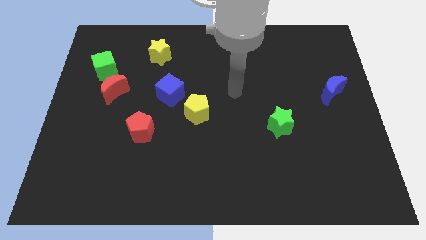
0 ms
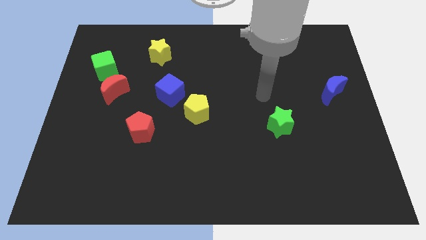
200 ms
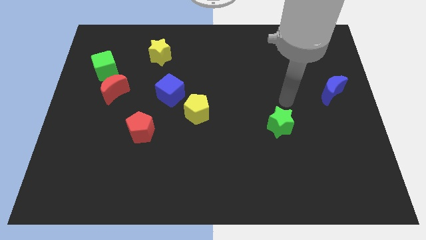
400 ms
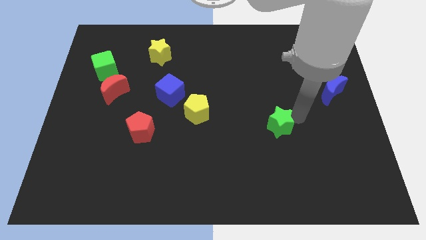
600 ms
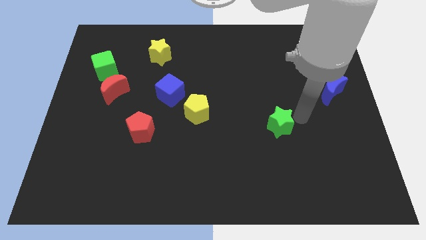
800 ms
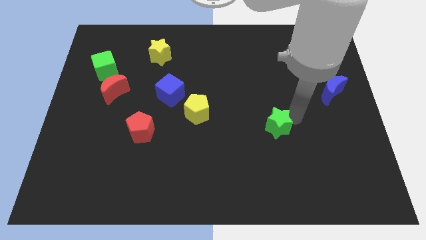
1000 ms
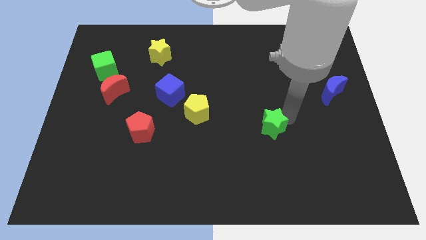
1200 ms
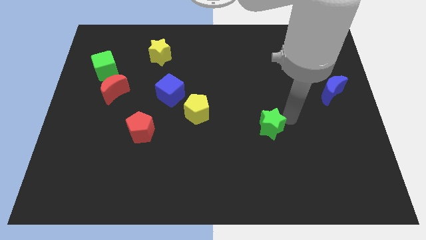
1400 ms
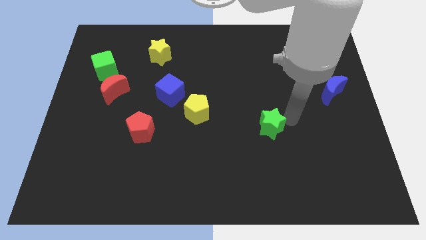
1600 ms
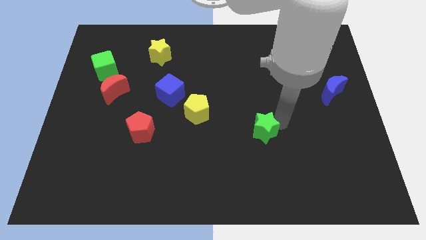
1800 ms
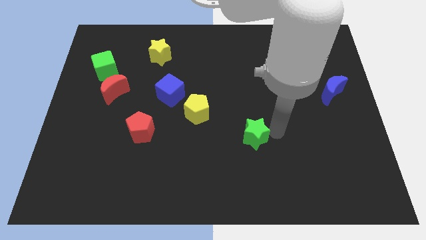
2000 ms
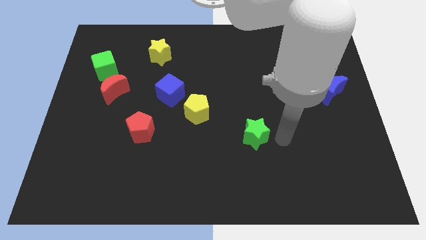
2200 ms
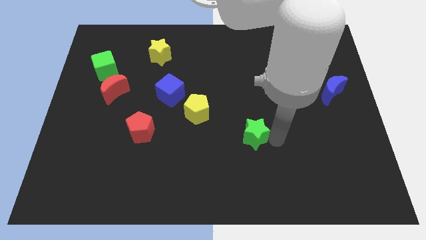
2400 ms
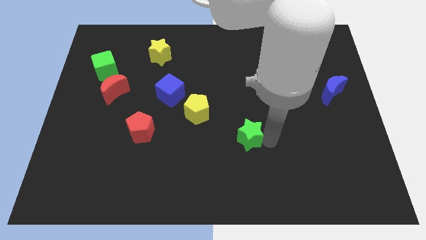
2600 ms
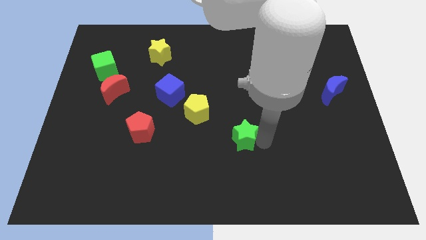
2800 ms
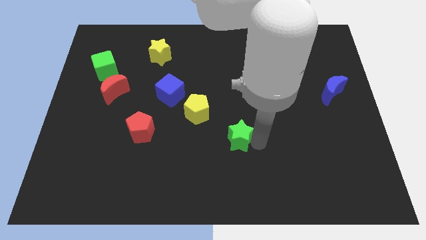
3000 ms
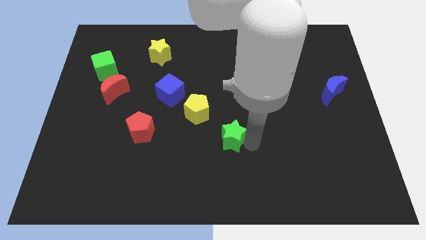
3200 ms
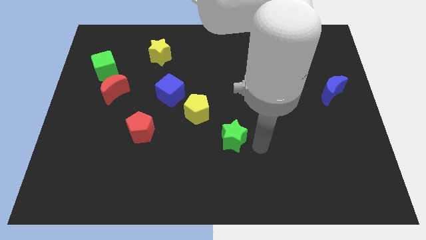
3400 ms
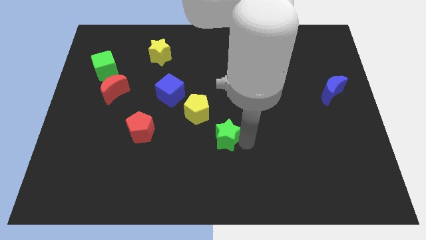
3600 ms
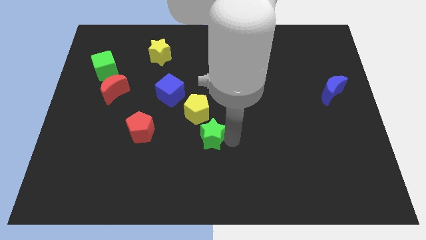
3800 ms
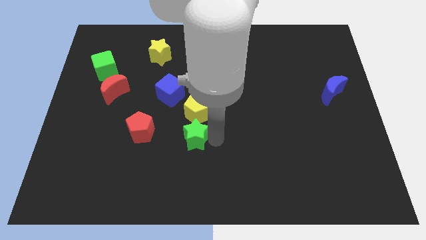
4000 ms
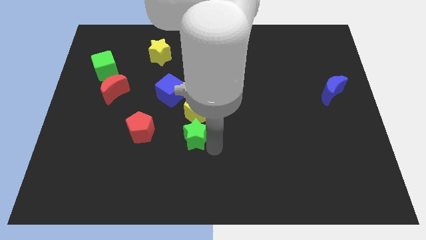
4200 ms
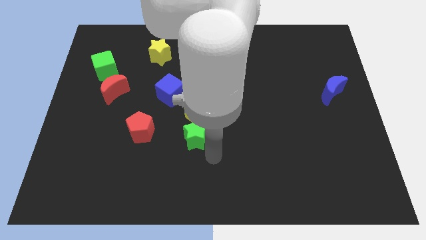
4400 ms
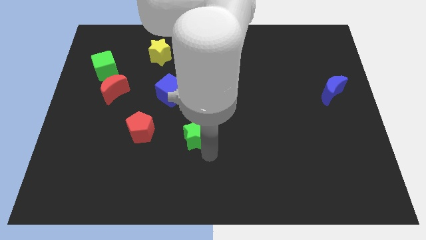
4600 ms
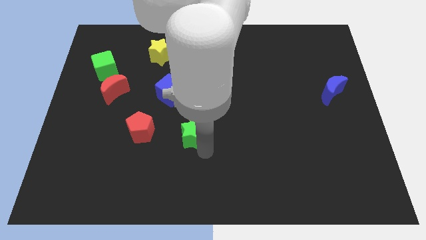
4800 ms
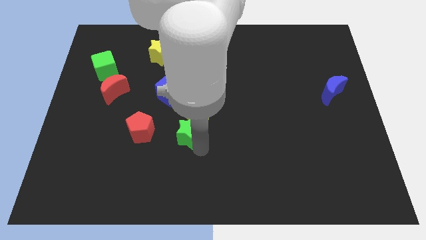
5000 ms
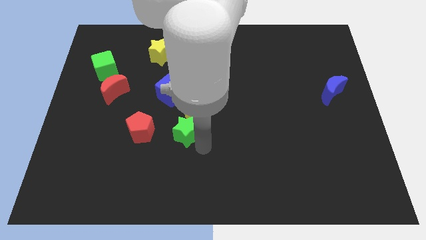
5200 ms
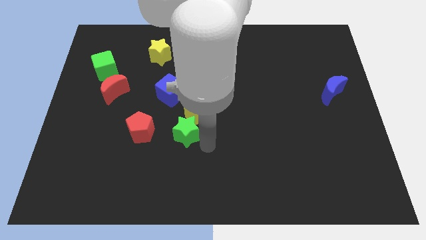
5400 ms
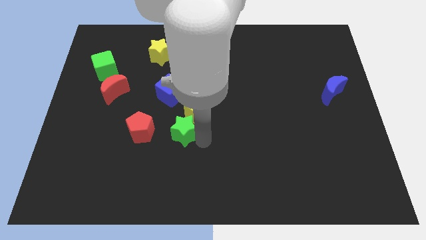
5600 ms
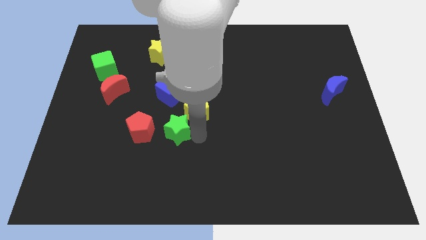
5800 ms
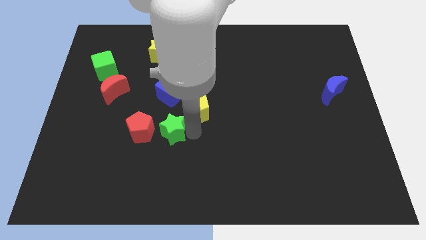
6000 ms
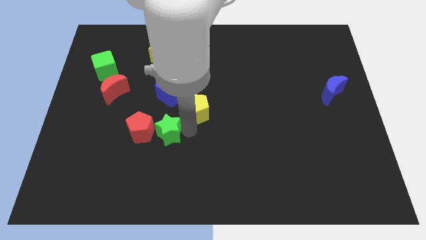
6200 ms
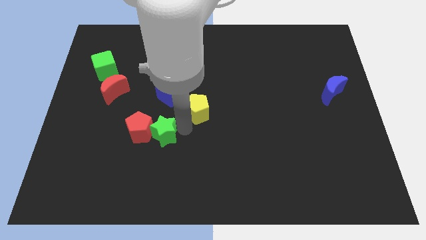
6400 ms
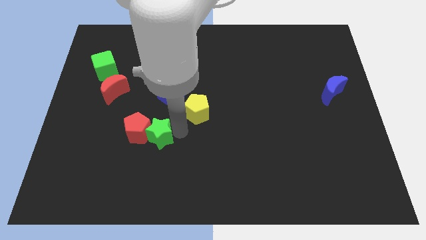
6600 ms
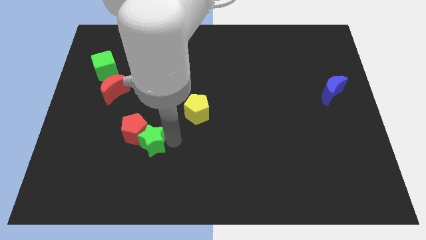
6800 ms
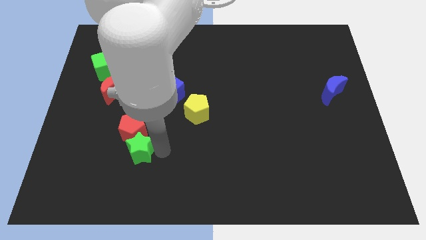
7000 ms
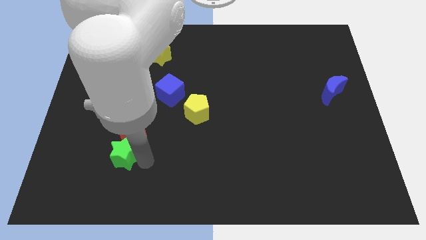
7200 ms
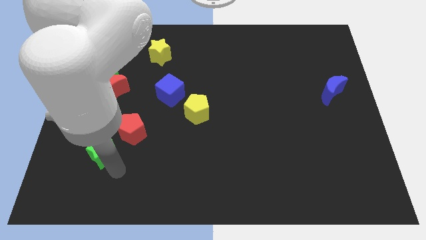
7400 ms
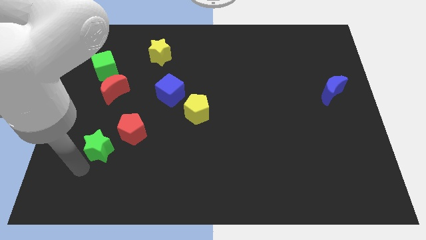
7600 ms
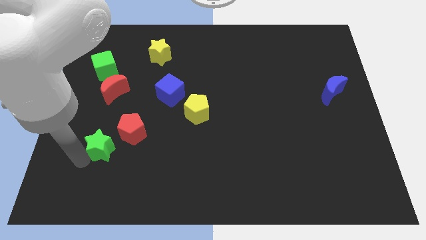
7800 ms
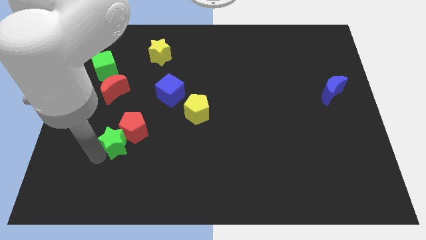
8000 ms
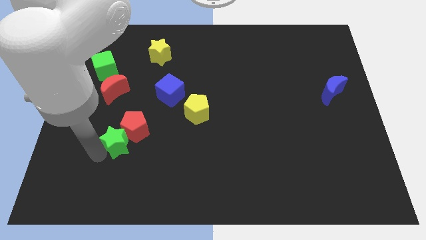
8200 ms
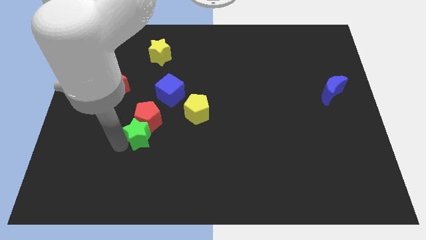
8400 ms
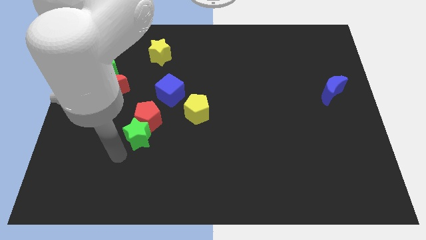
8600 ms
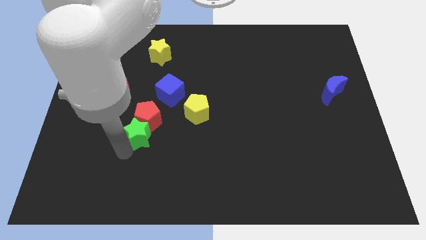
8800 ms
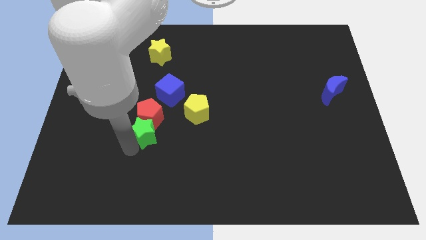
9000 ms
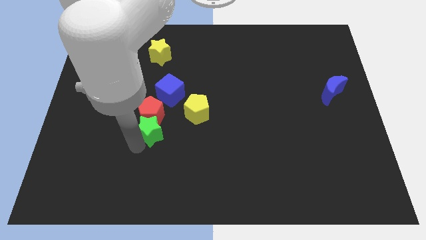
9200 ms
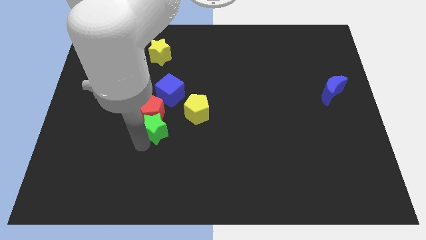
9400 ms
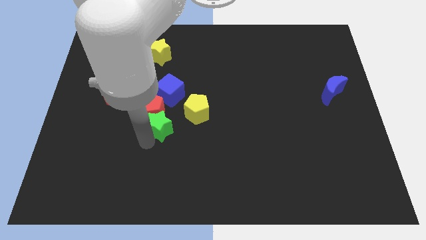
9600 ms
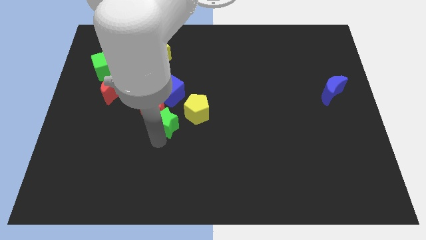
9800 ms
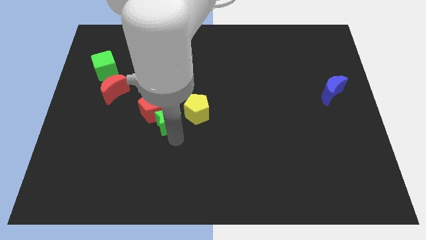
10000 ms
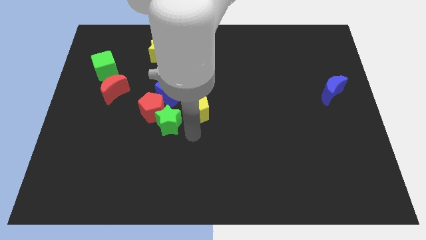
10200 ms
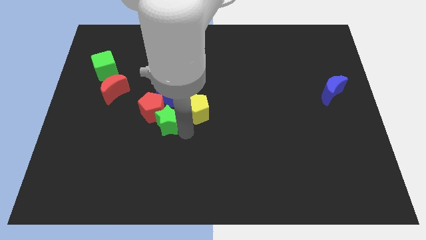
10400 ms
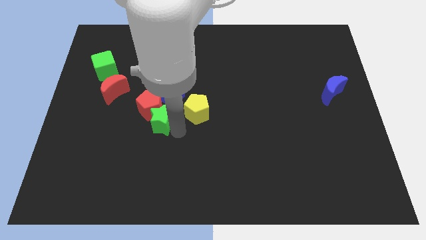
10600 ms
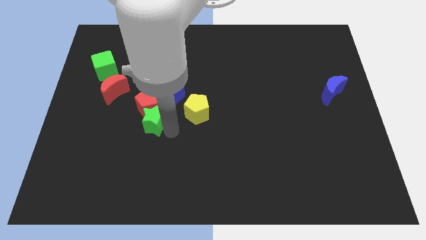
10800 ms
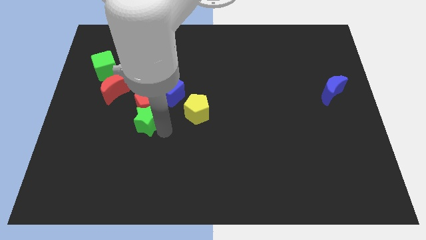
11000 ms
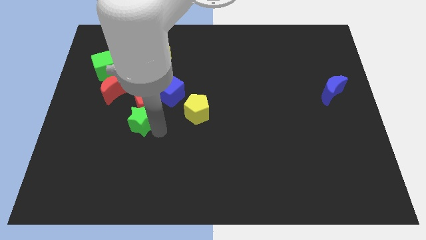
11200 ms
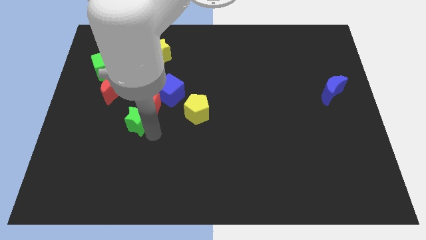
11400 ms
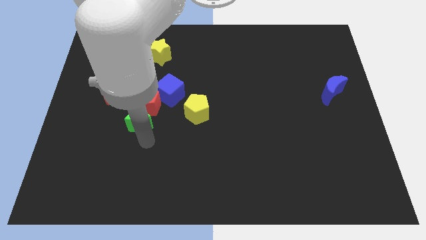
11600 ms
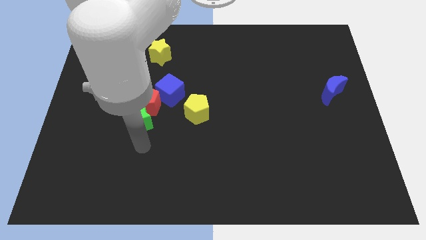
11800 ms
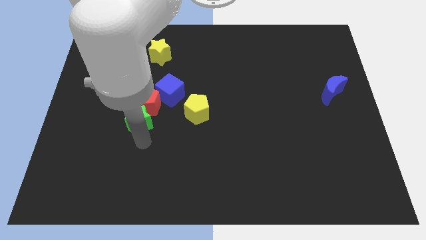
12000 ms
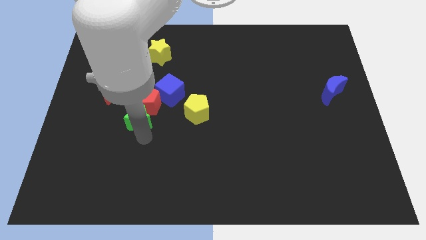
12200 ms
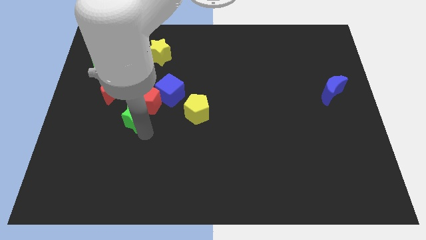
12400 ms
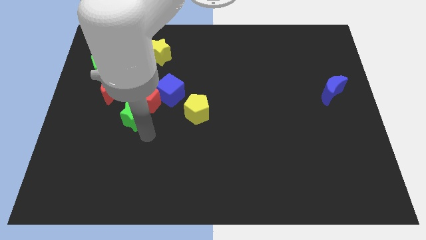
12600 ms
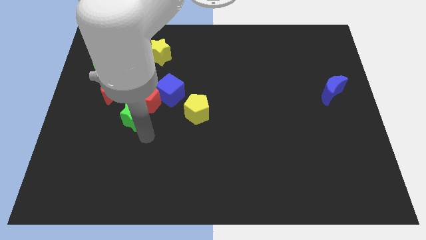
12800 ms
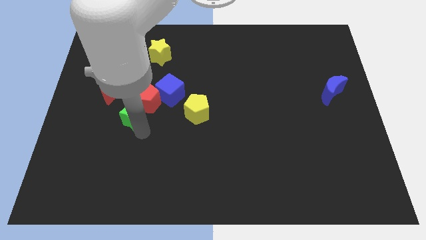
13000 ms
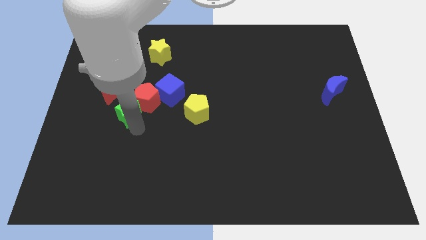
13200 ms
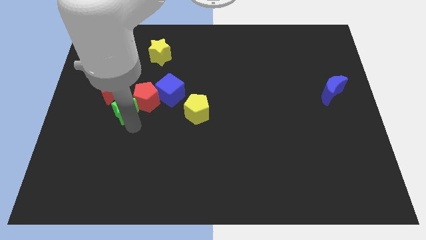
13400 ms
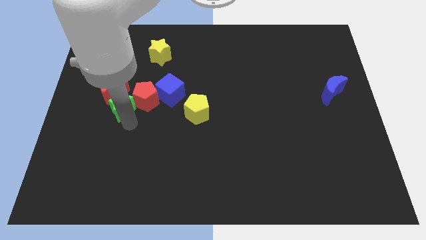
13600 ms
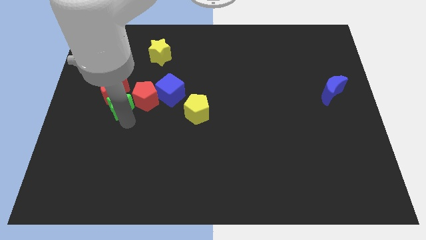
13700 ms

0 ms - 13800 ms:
push the green star towards the red moon

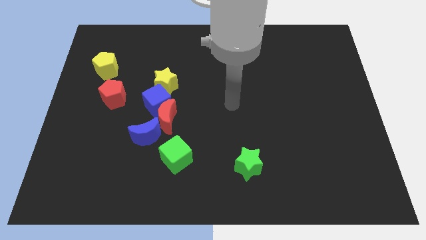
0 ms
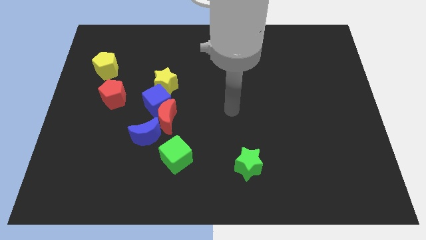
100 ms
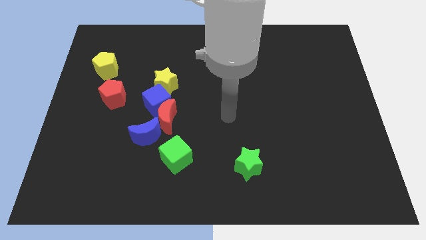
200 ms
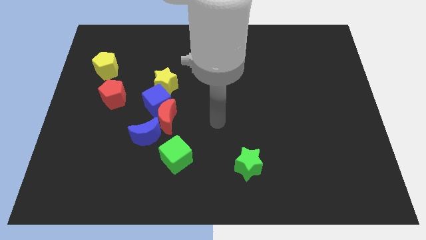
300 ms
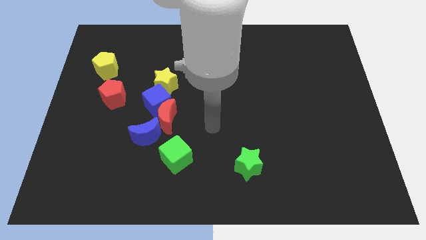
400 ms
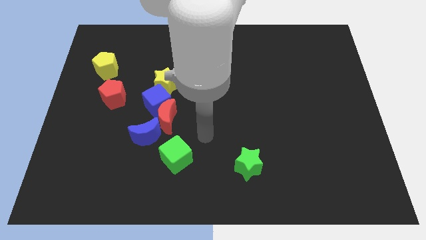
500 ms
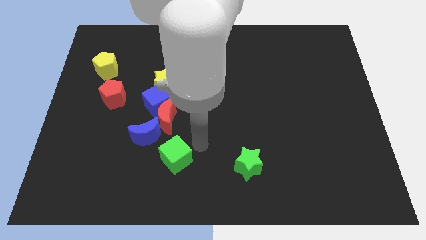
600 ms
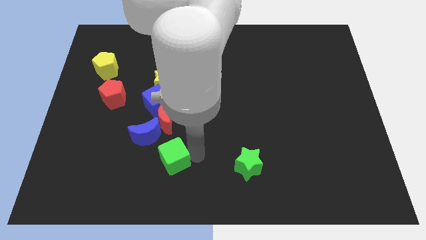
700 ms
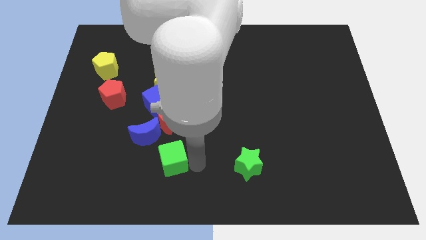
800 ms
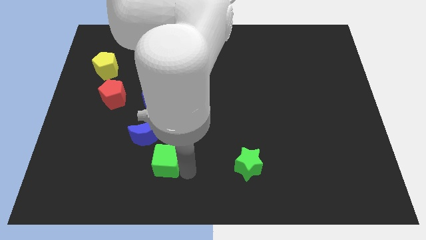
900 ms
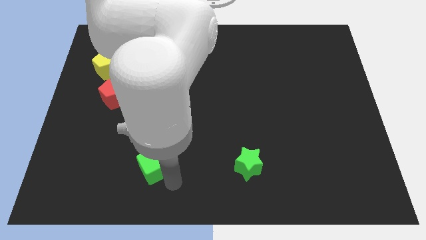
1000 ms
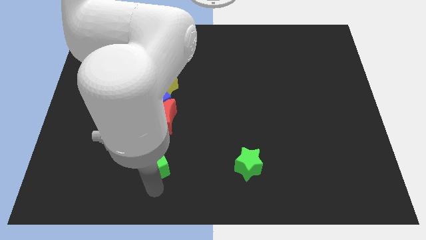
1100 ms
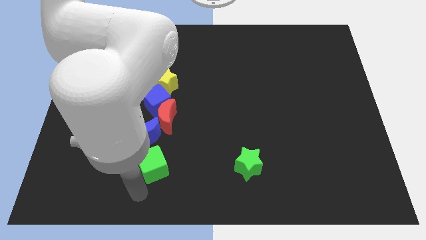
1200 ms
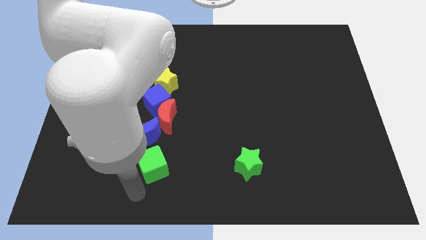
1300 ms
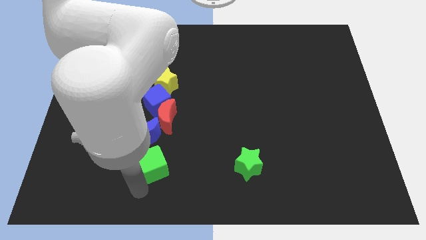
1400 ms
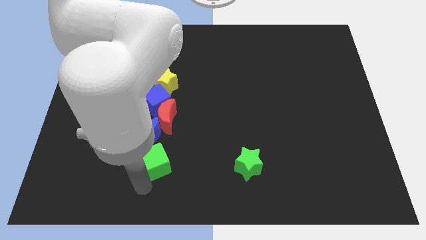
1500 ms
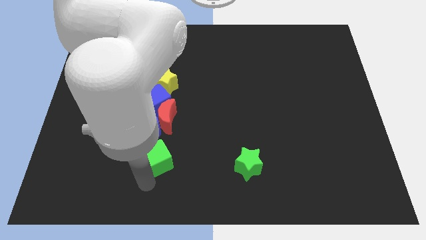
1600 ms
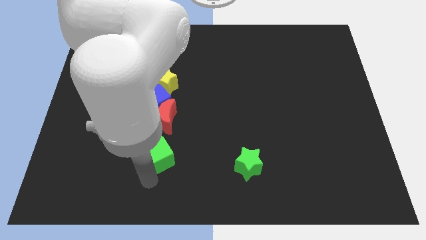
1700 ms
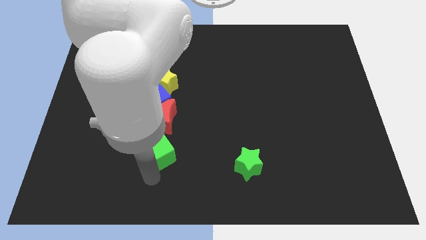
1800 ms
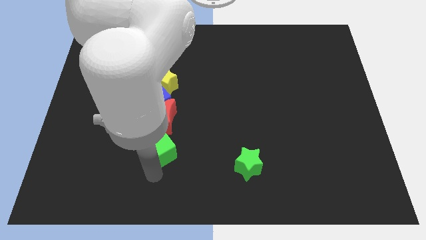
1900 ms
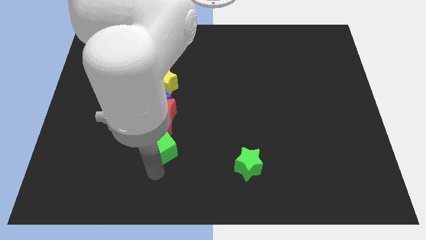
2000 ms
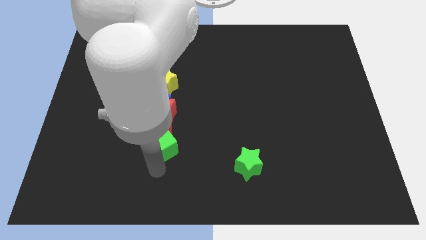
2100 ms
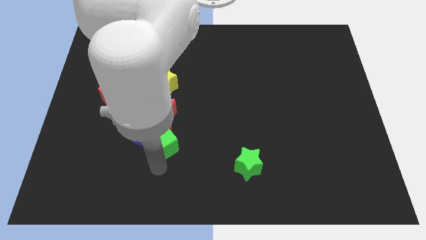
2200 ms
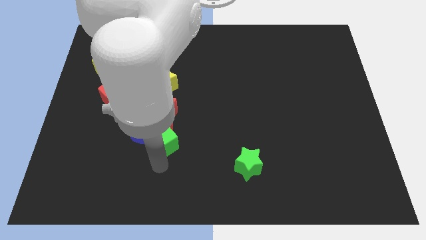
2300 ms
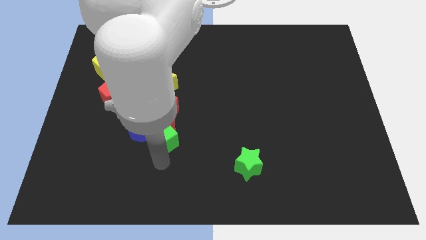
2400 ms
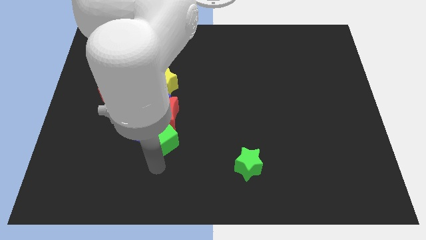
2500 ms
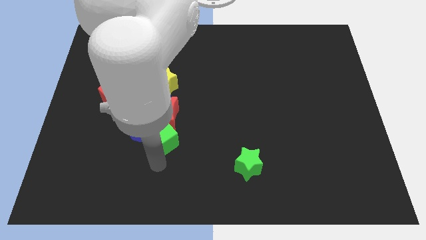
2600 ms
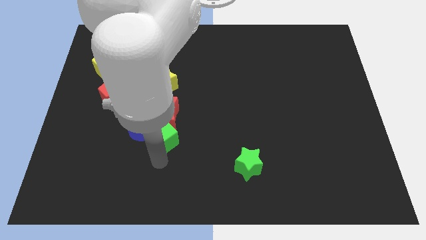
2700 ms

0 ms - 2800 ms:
put the green cube close to the red moon
